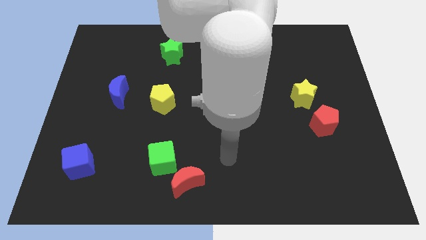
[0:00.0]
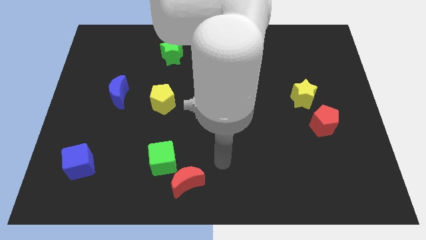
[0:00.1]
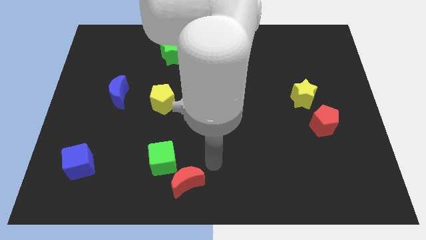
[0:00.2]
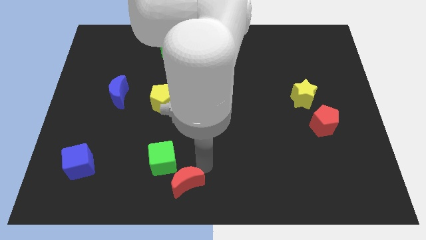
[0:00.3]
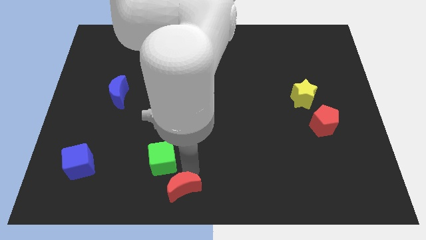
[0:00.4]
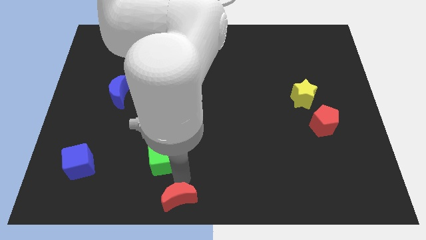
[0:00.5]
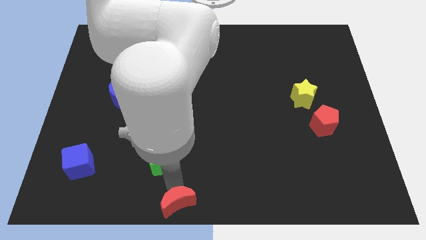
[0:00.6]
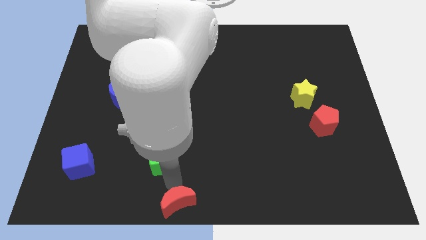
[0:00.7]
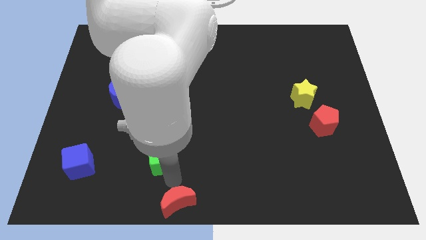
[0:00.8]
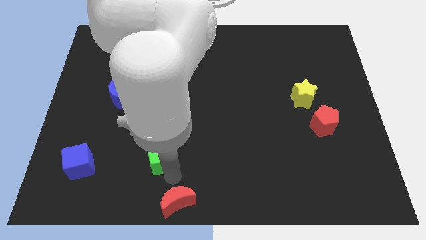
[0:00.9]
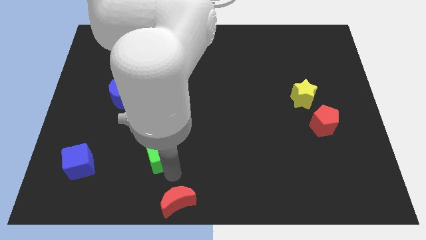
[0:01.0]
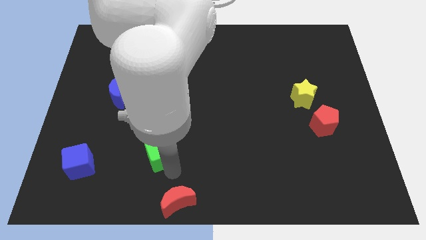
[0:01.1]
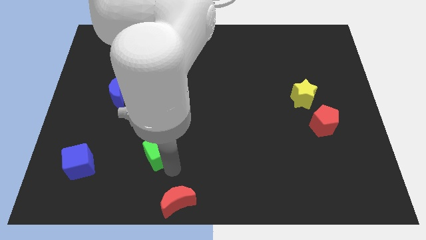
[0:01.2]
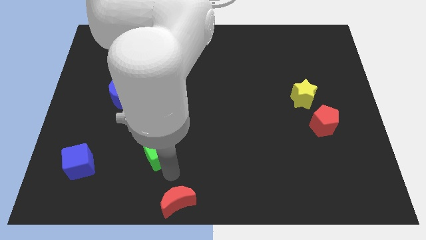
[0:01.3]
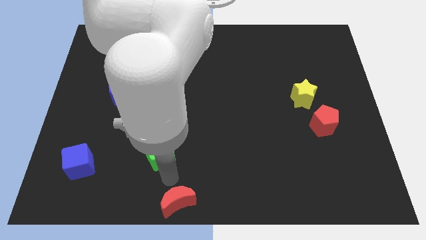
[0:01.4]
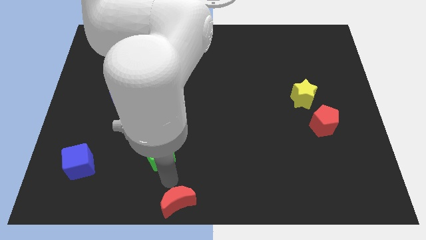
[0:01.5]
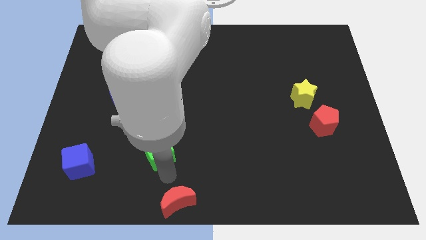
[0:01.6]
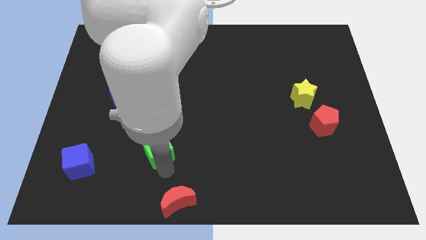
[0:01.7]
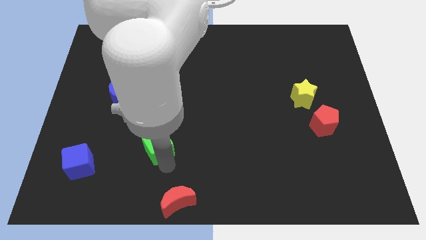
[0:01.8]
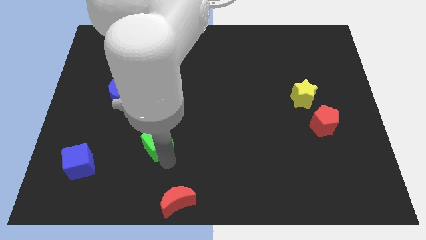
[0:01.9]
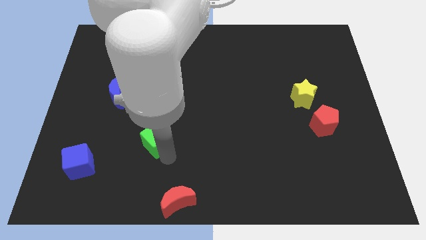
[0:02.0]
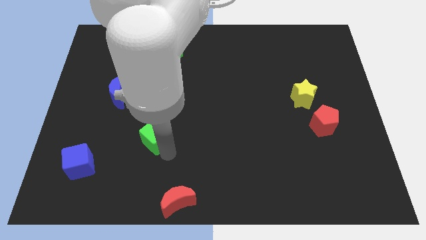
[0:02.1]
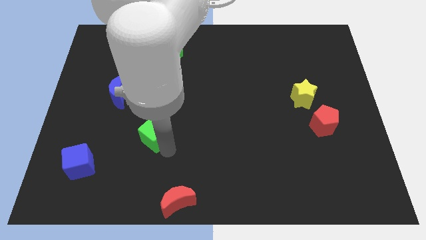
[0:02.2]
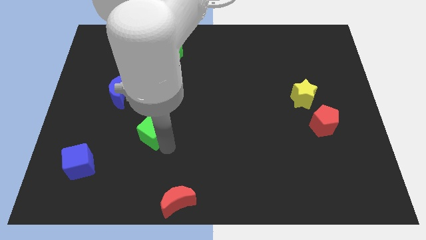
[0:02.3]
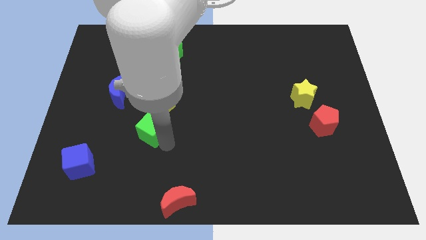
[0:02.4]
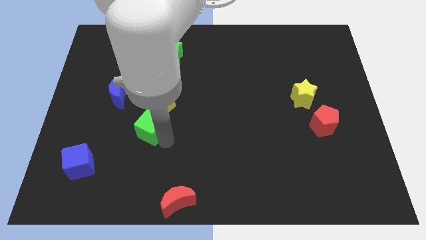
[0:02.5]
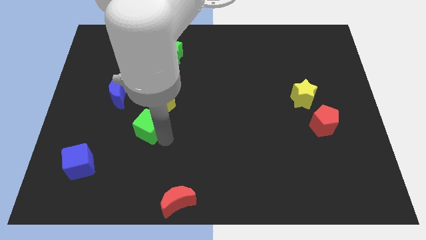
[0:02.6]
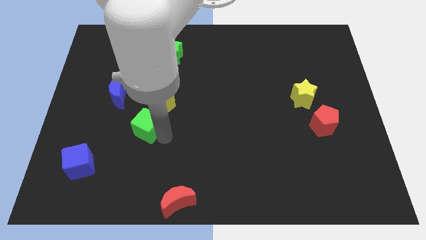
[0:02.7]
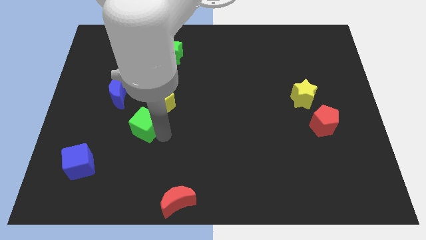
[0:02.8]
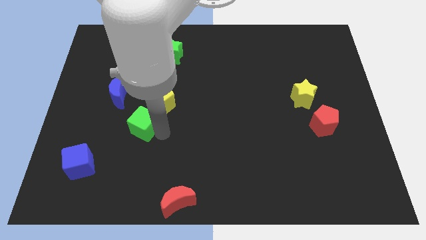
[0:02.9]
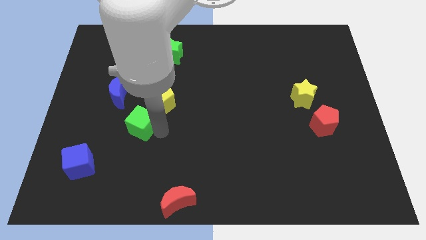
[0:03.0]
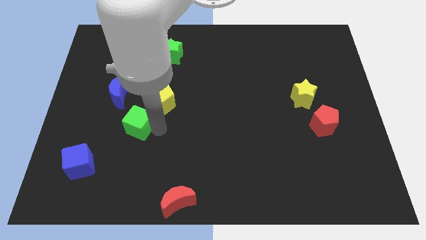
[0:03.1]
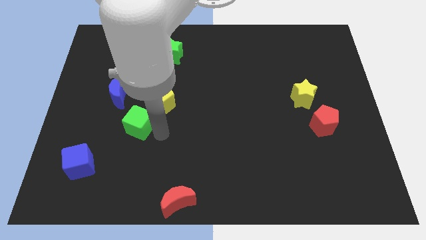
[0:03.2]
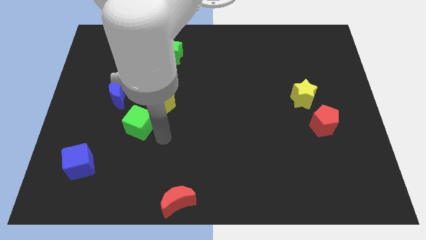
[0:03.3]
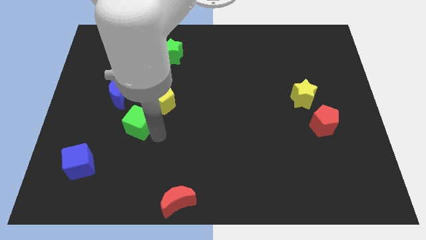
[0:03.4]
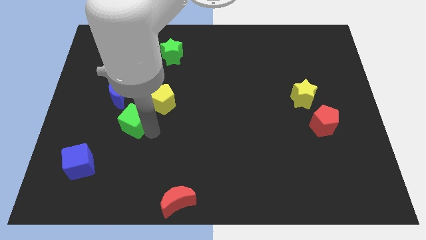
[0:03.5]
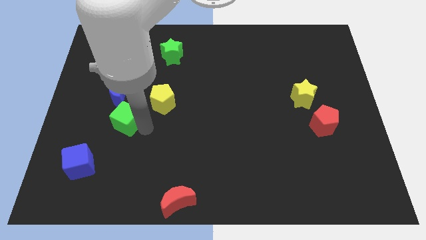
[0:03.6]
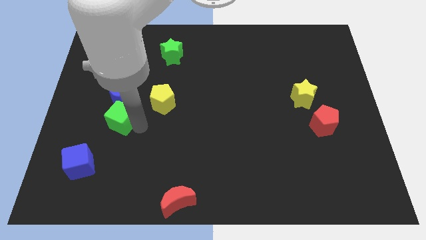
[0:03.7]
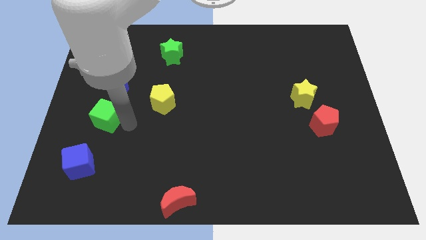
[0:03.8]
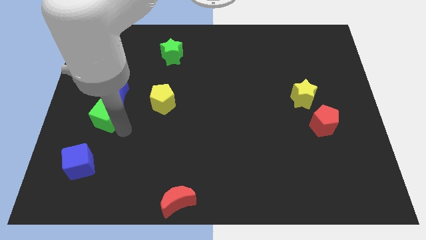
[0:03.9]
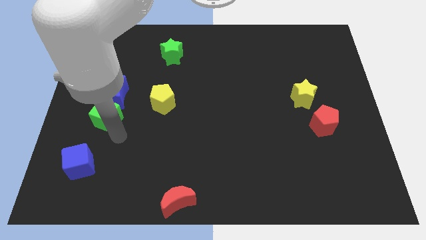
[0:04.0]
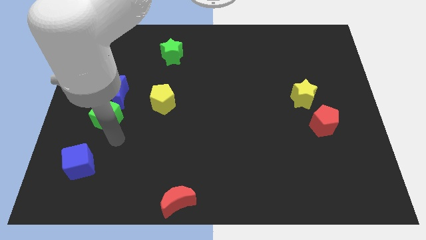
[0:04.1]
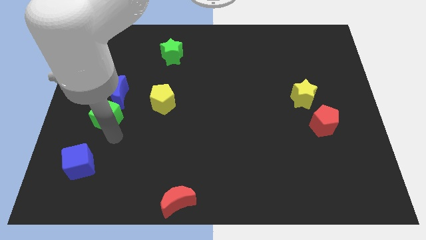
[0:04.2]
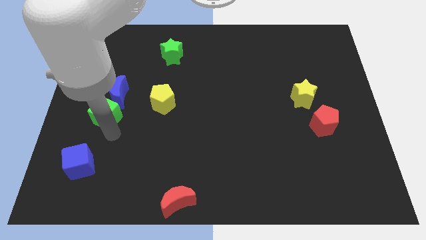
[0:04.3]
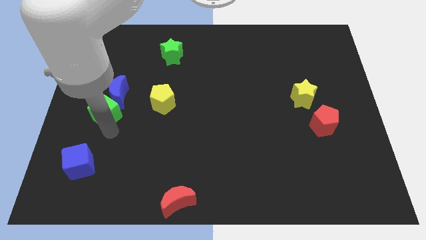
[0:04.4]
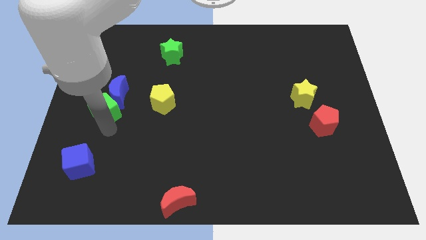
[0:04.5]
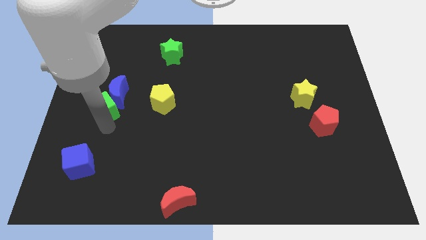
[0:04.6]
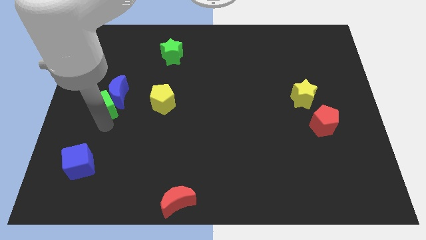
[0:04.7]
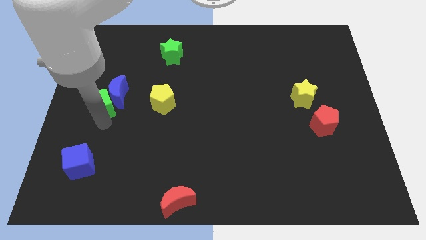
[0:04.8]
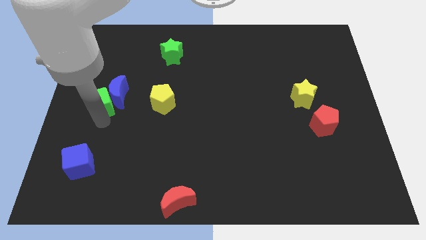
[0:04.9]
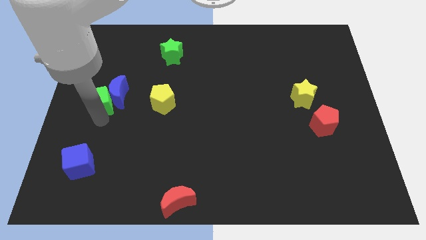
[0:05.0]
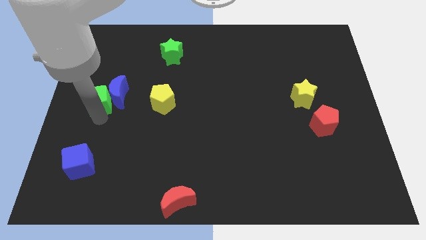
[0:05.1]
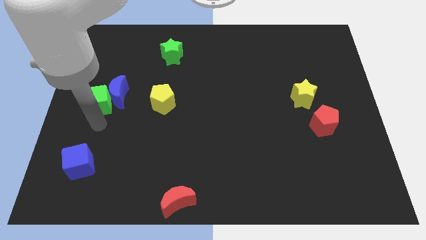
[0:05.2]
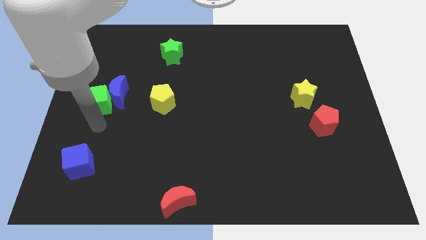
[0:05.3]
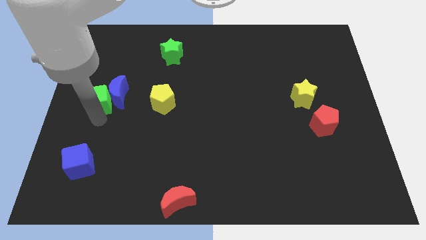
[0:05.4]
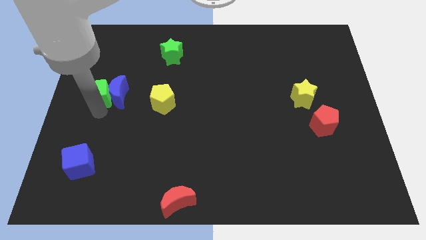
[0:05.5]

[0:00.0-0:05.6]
push the green cube to the top left of the blue moon

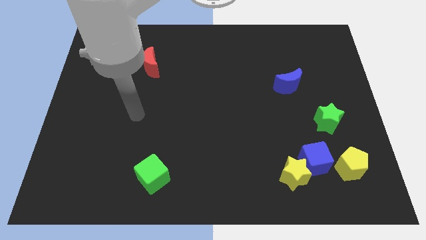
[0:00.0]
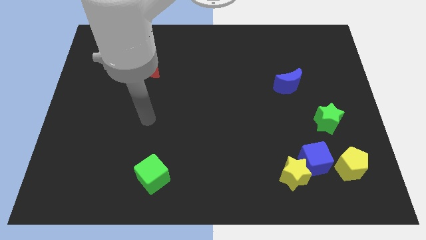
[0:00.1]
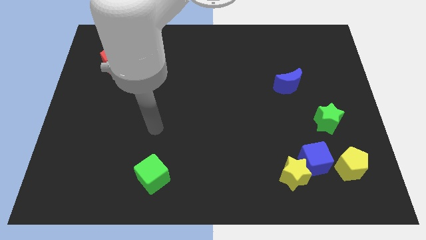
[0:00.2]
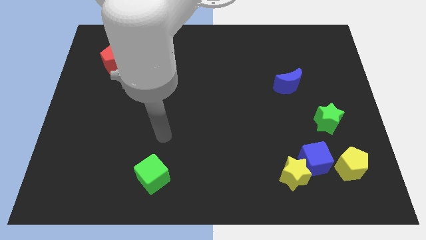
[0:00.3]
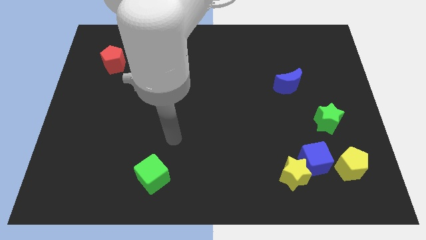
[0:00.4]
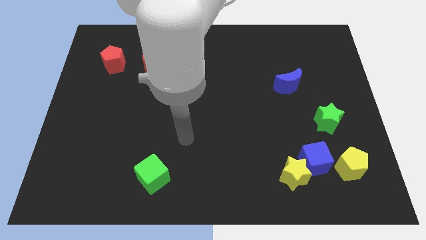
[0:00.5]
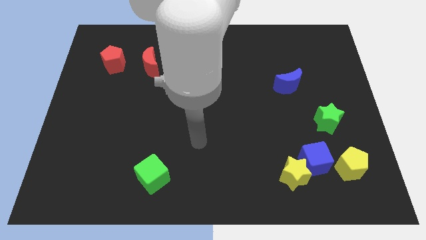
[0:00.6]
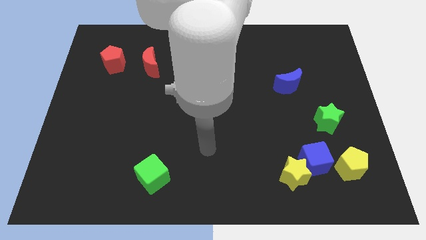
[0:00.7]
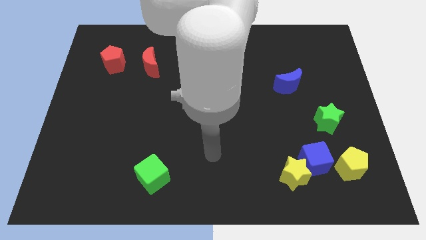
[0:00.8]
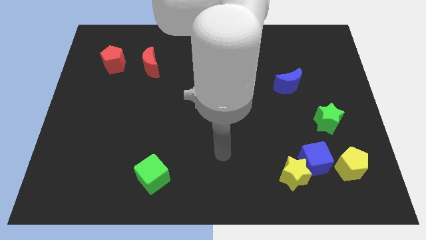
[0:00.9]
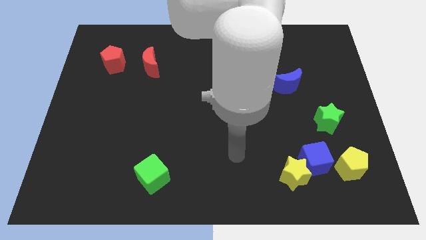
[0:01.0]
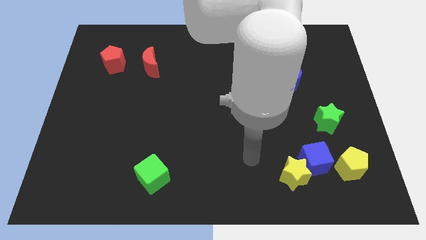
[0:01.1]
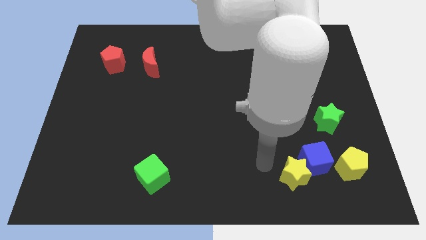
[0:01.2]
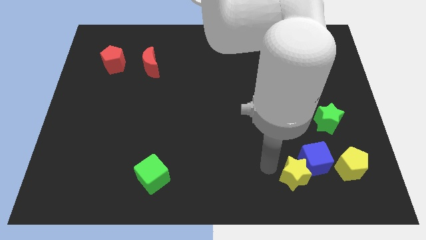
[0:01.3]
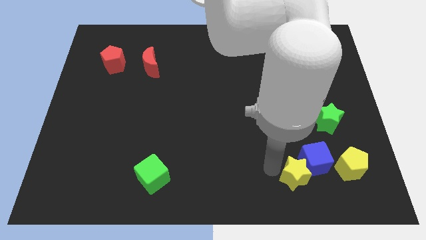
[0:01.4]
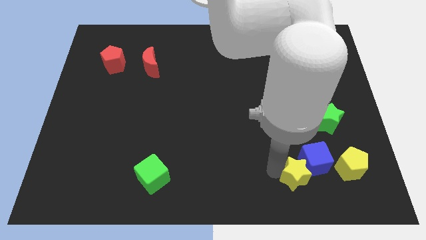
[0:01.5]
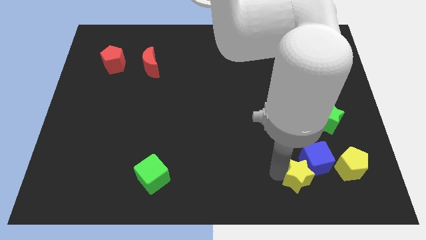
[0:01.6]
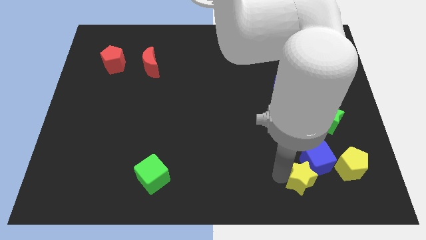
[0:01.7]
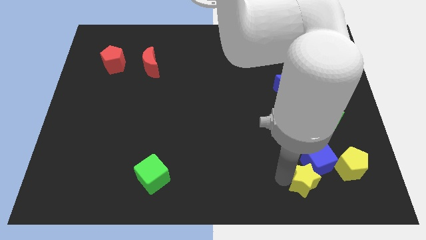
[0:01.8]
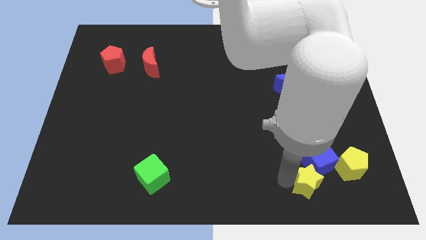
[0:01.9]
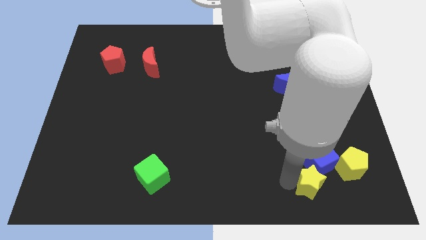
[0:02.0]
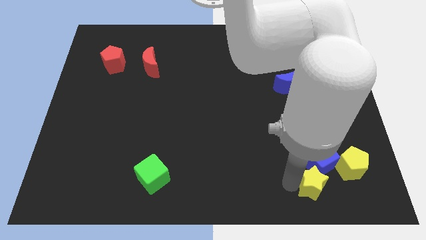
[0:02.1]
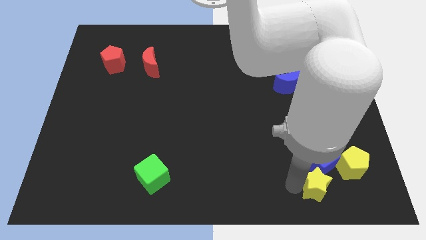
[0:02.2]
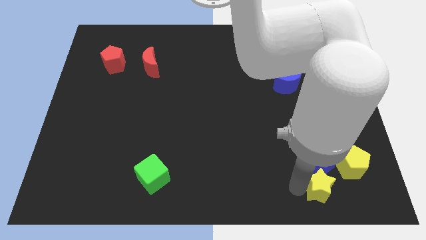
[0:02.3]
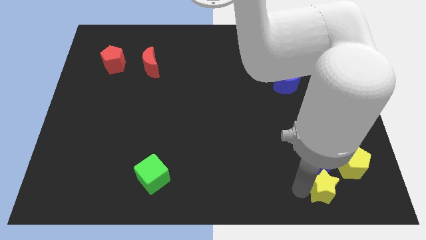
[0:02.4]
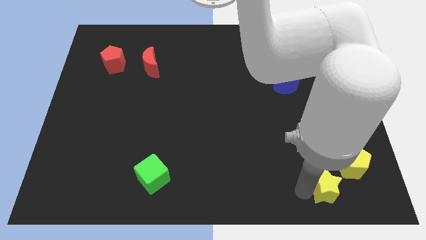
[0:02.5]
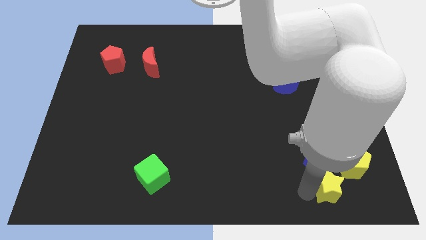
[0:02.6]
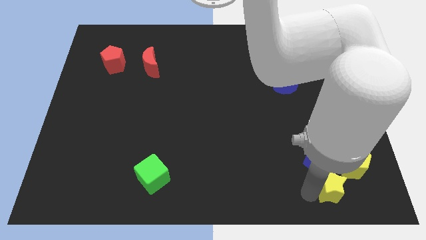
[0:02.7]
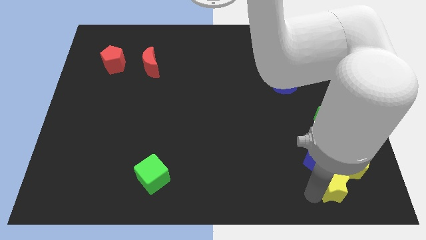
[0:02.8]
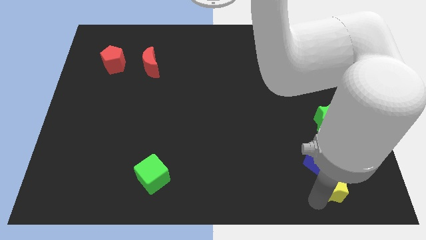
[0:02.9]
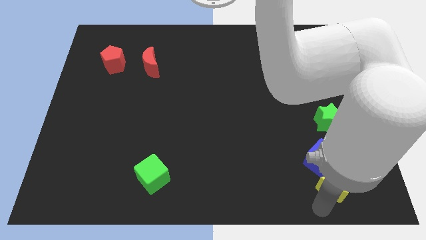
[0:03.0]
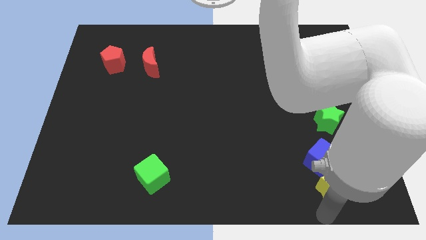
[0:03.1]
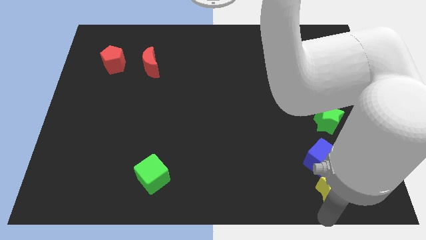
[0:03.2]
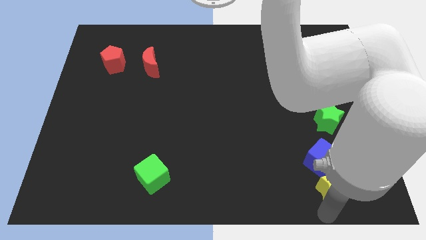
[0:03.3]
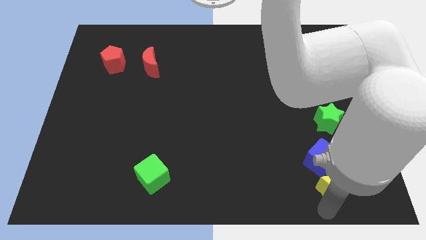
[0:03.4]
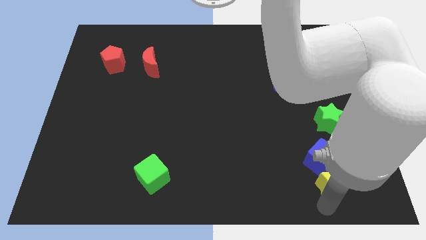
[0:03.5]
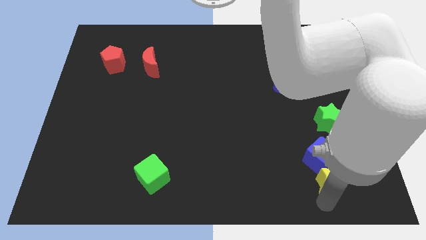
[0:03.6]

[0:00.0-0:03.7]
put the yellow star to the bottom side of the green star
